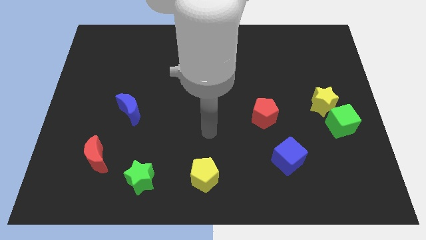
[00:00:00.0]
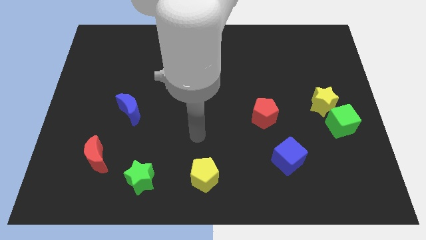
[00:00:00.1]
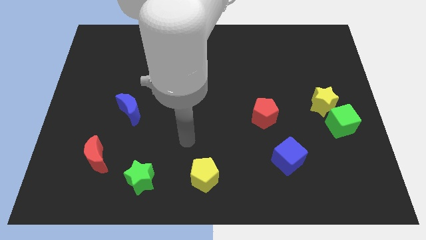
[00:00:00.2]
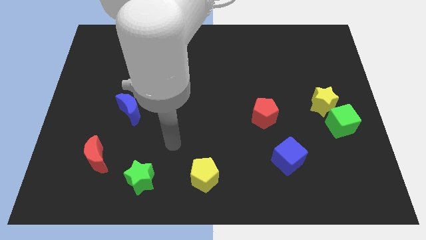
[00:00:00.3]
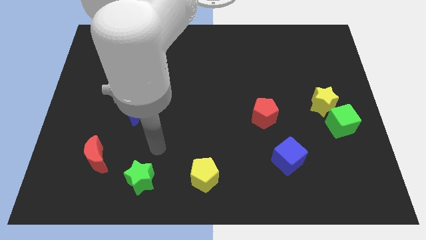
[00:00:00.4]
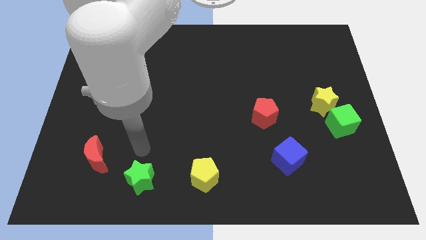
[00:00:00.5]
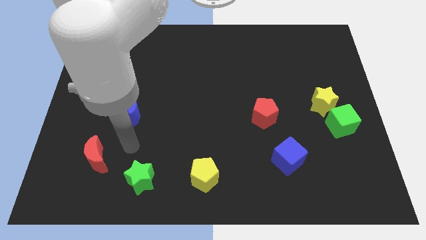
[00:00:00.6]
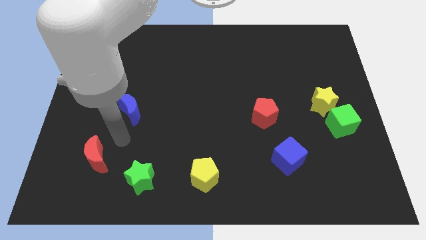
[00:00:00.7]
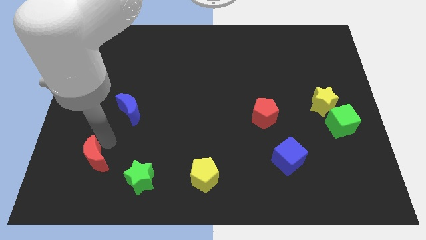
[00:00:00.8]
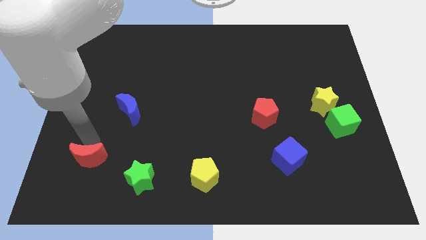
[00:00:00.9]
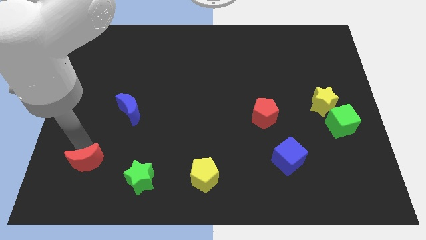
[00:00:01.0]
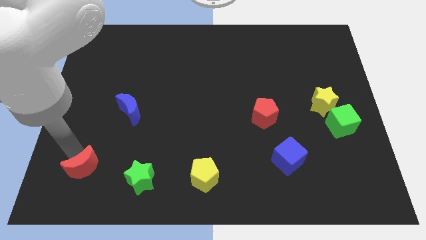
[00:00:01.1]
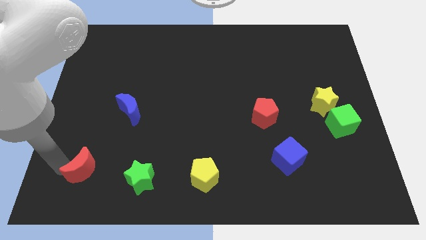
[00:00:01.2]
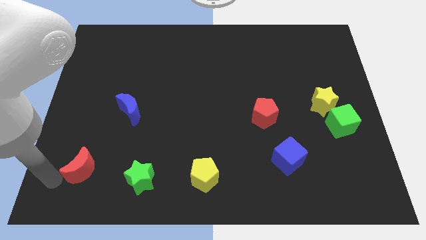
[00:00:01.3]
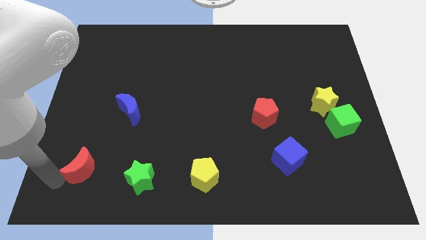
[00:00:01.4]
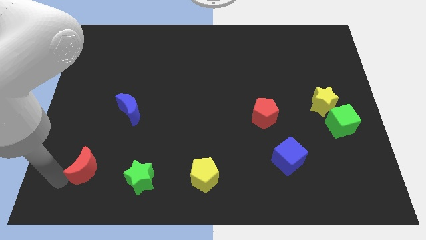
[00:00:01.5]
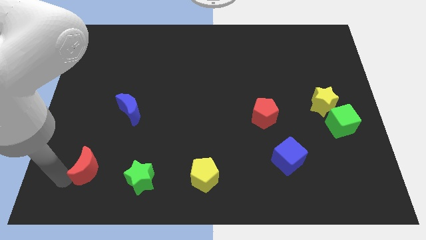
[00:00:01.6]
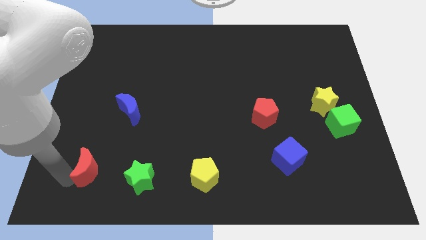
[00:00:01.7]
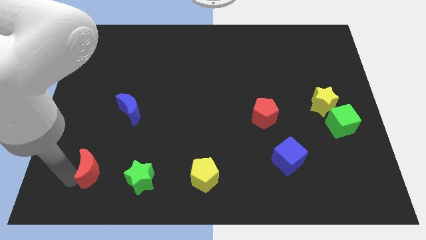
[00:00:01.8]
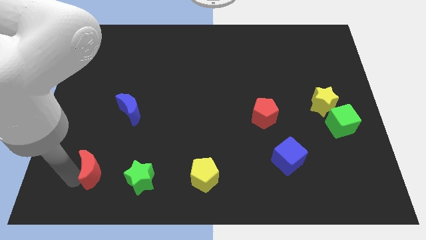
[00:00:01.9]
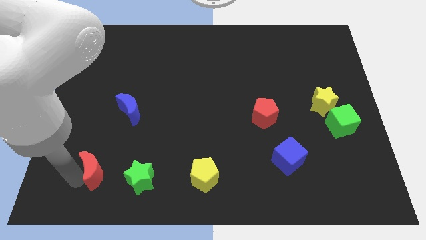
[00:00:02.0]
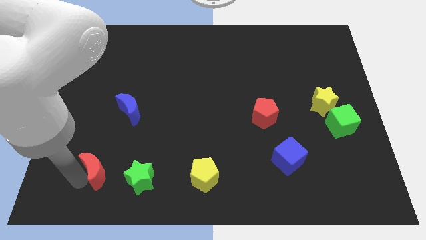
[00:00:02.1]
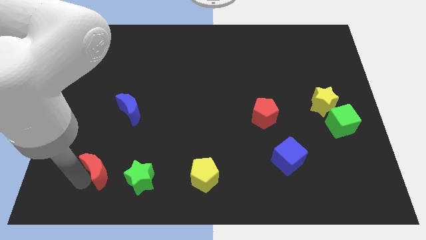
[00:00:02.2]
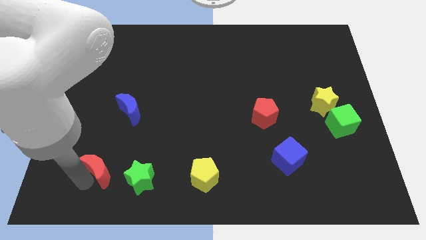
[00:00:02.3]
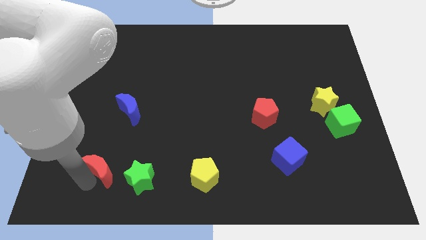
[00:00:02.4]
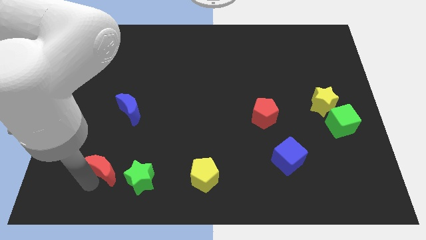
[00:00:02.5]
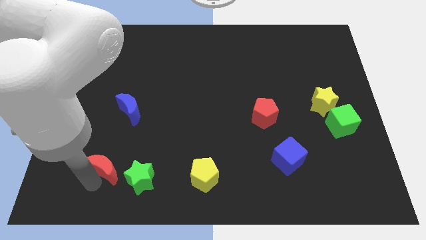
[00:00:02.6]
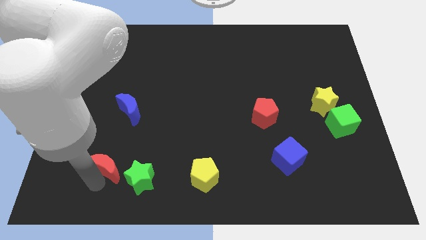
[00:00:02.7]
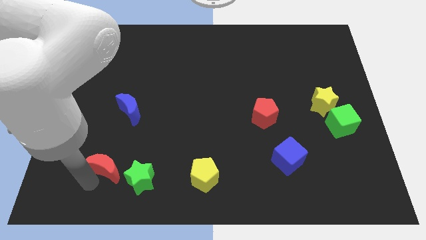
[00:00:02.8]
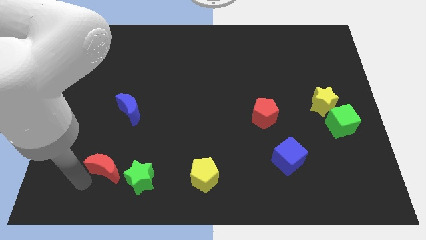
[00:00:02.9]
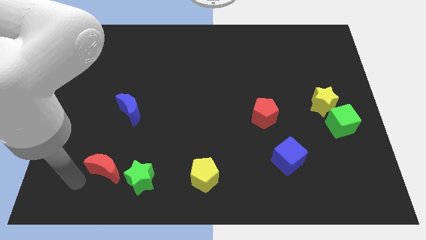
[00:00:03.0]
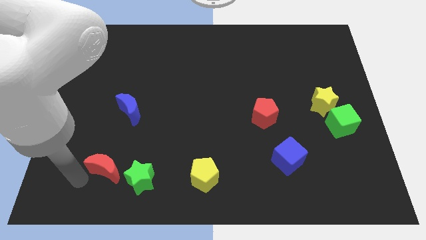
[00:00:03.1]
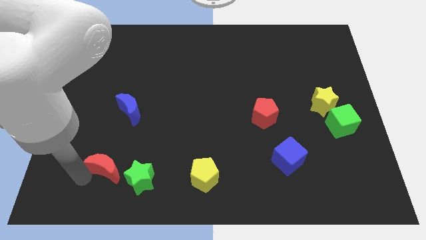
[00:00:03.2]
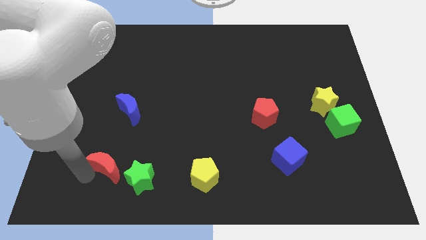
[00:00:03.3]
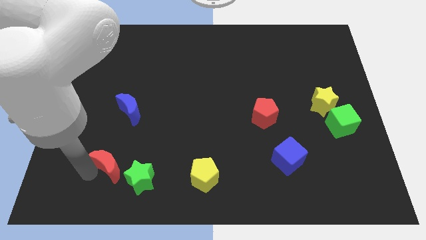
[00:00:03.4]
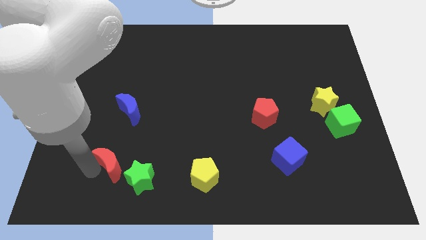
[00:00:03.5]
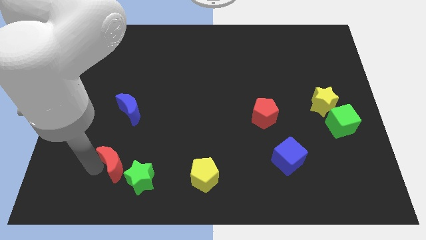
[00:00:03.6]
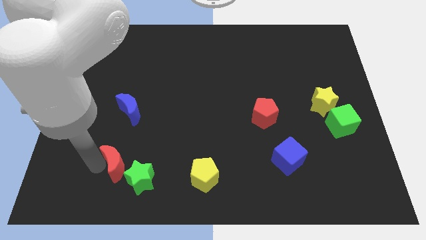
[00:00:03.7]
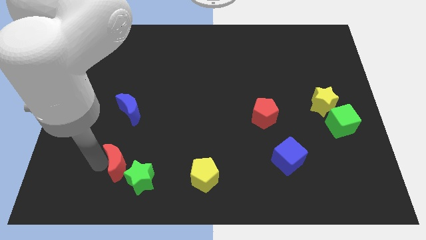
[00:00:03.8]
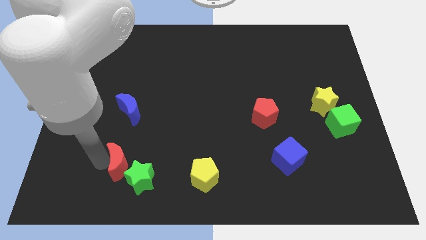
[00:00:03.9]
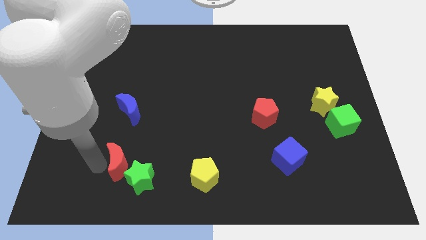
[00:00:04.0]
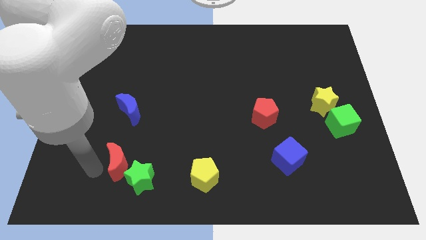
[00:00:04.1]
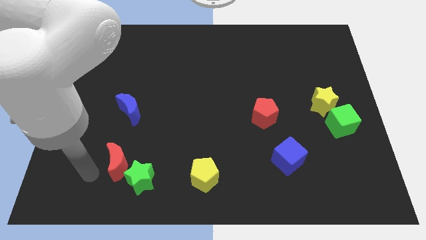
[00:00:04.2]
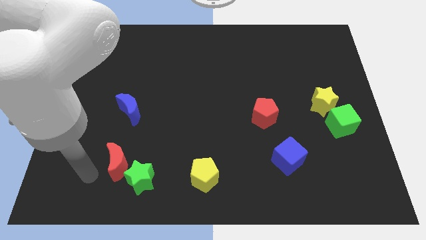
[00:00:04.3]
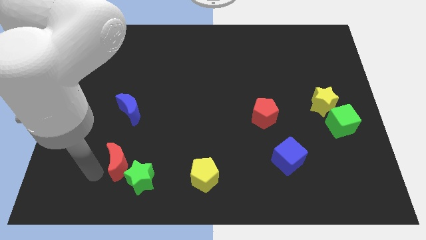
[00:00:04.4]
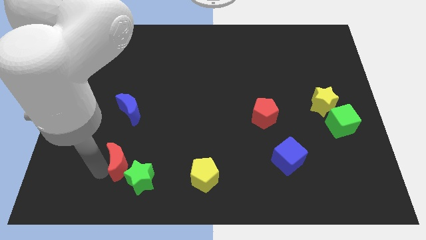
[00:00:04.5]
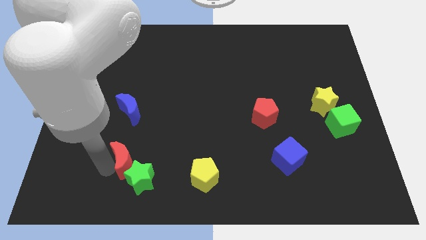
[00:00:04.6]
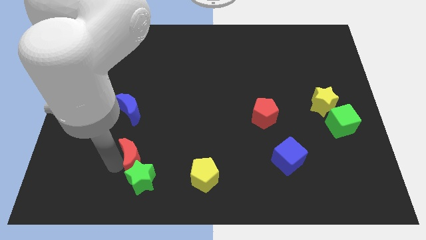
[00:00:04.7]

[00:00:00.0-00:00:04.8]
push the red moon a little right

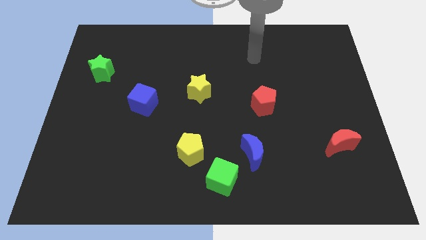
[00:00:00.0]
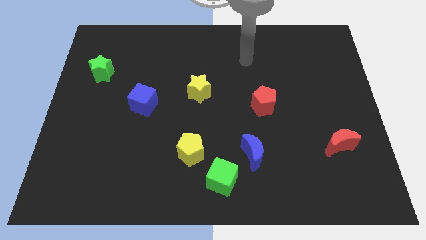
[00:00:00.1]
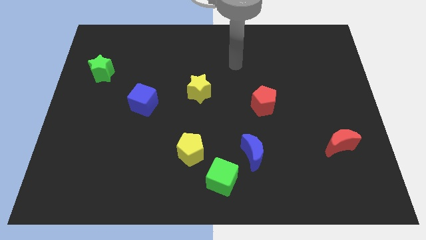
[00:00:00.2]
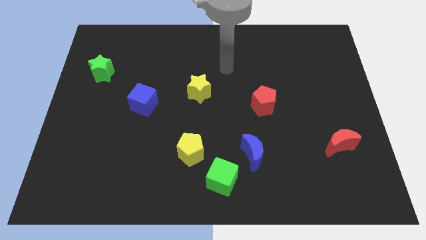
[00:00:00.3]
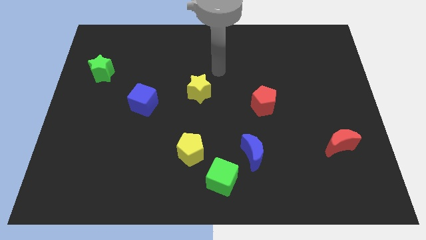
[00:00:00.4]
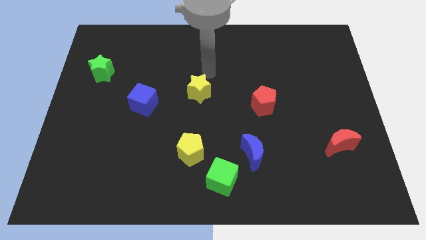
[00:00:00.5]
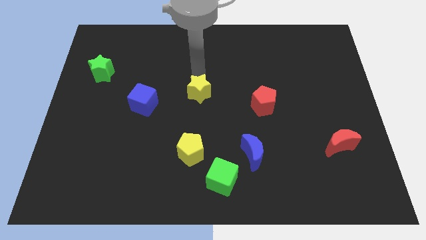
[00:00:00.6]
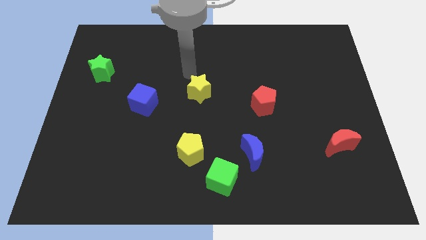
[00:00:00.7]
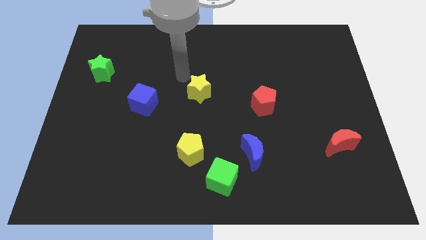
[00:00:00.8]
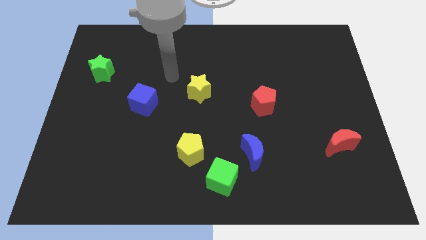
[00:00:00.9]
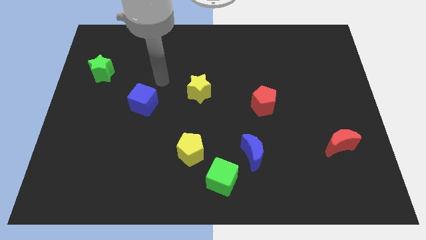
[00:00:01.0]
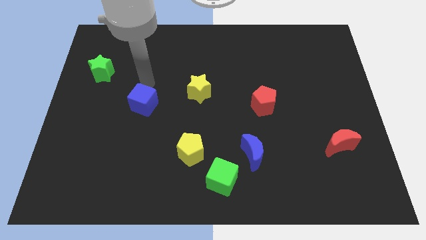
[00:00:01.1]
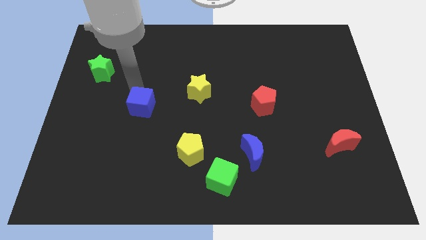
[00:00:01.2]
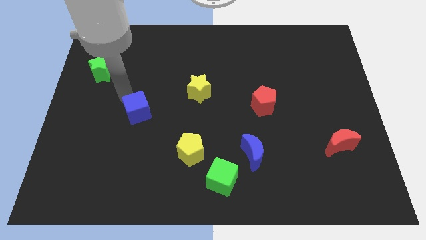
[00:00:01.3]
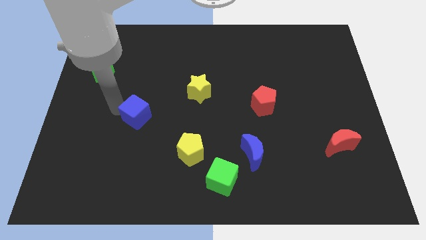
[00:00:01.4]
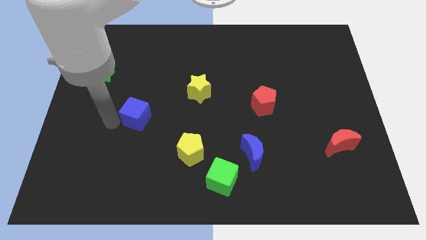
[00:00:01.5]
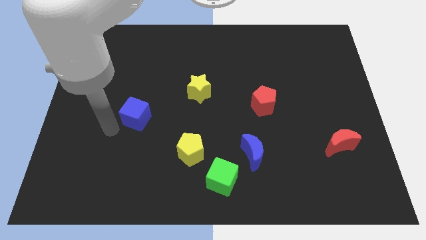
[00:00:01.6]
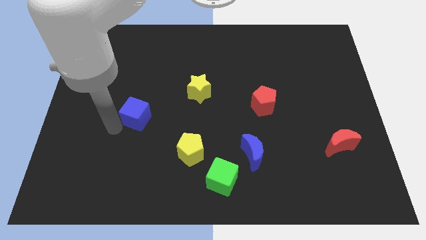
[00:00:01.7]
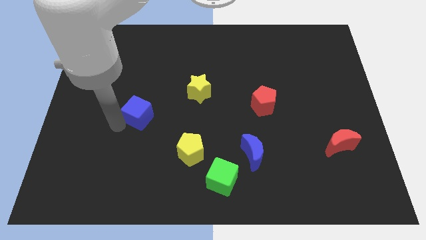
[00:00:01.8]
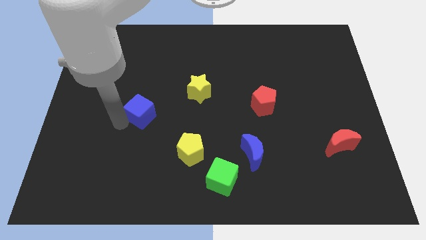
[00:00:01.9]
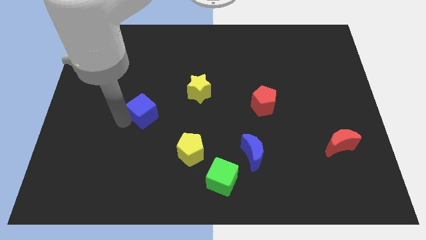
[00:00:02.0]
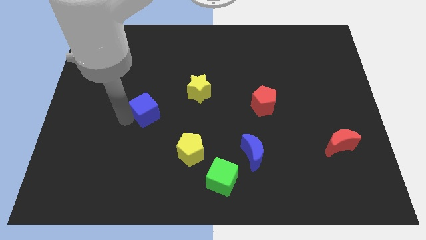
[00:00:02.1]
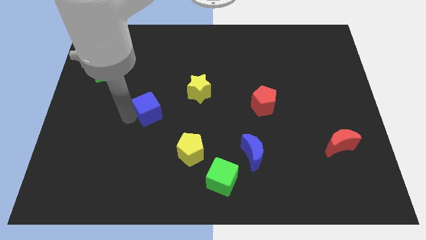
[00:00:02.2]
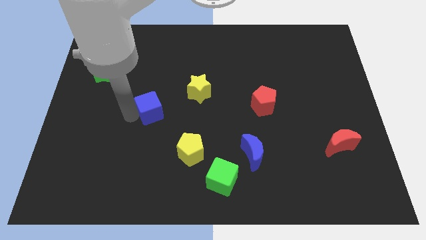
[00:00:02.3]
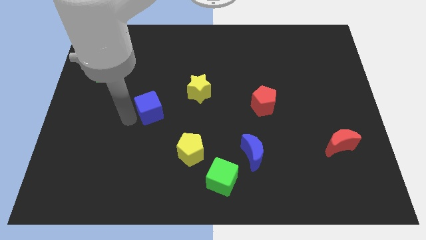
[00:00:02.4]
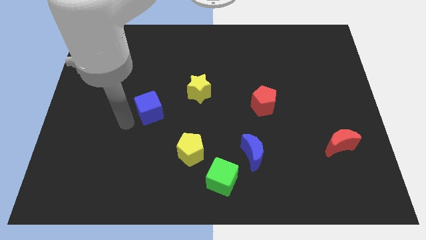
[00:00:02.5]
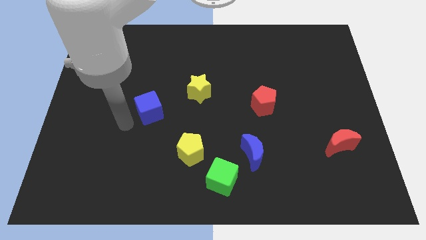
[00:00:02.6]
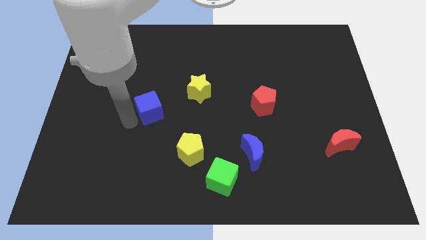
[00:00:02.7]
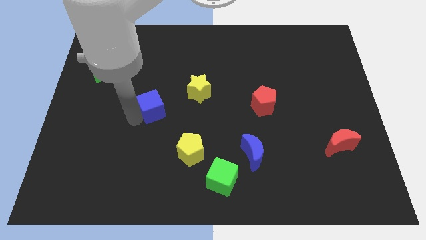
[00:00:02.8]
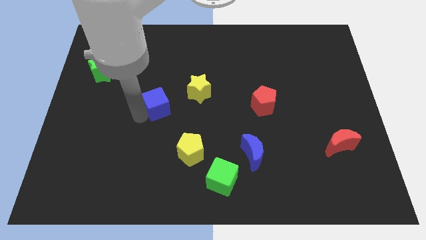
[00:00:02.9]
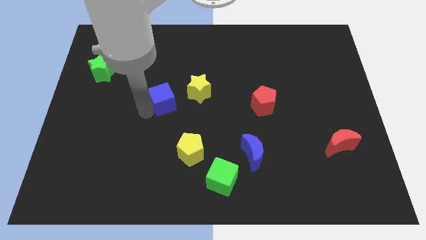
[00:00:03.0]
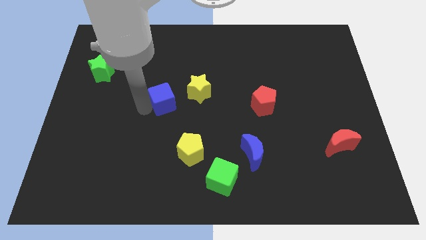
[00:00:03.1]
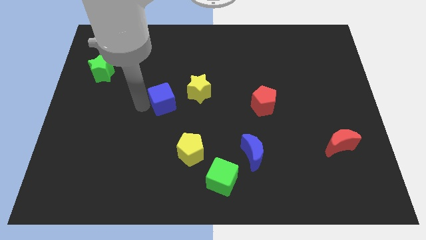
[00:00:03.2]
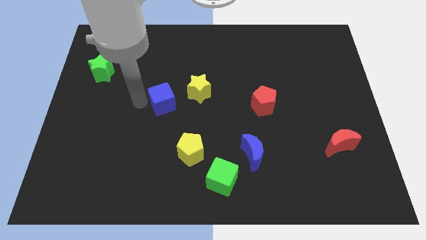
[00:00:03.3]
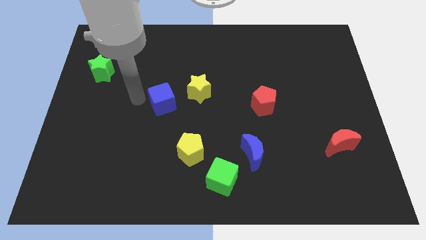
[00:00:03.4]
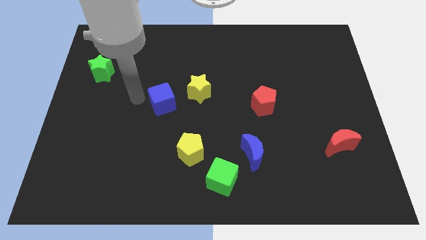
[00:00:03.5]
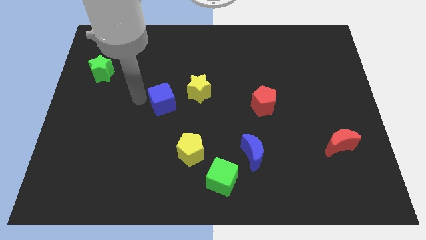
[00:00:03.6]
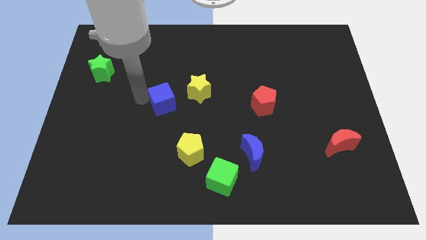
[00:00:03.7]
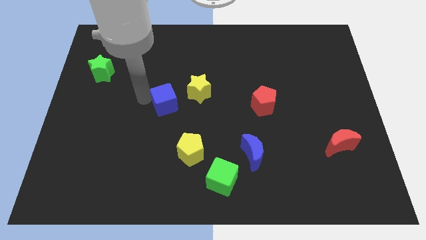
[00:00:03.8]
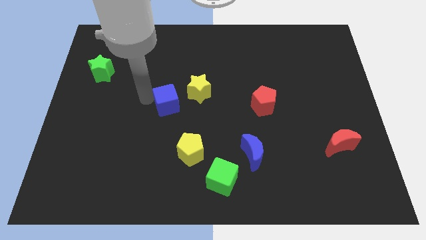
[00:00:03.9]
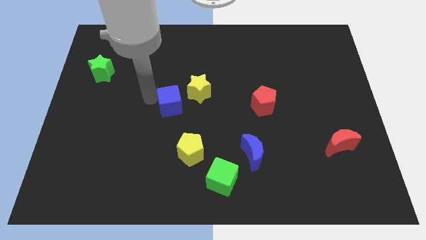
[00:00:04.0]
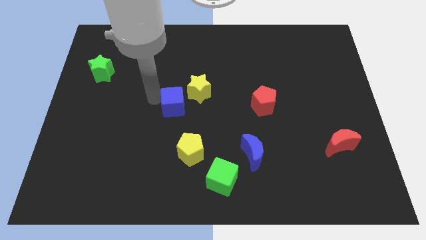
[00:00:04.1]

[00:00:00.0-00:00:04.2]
push the blue cube somewhat to the right
